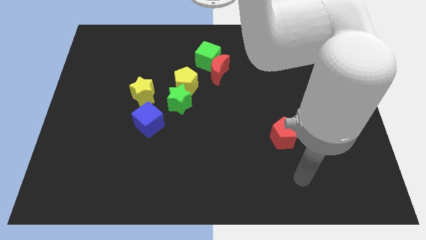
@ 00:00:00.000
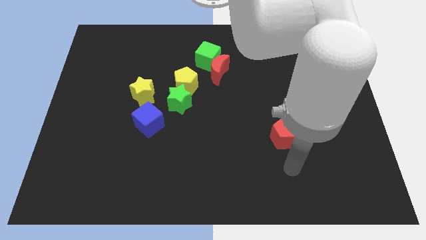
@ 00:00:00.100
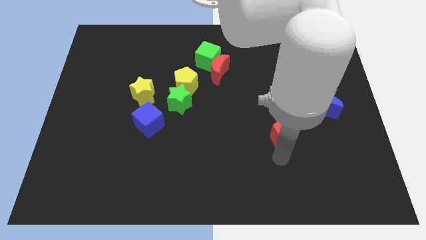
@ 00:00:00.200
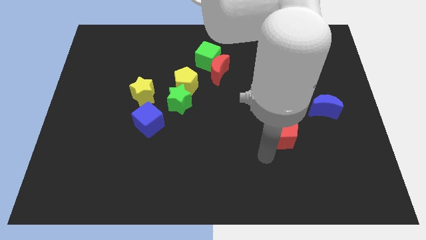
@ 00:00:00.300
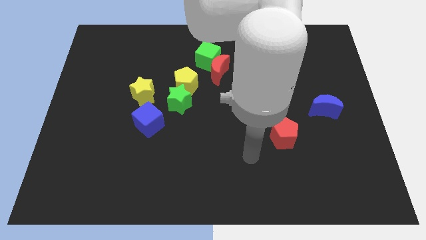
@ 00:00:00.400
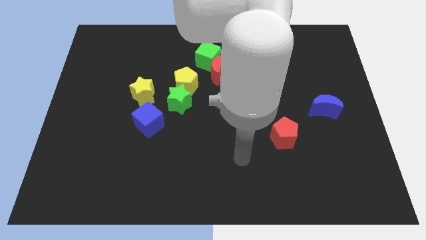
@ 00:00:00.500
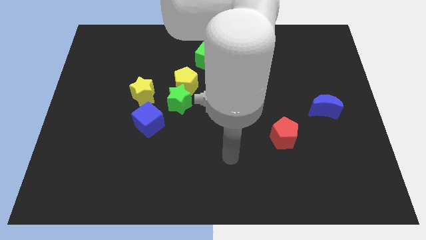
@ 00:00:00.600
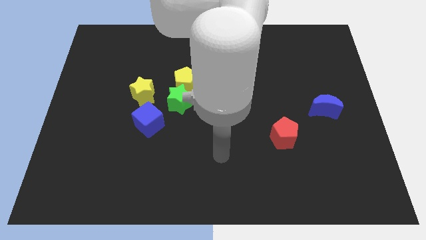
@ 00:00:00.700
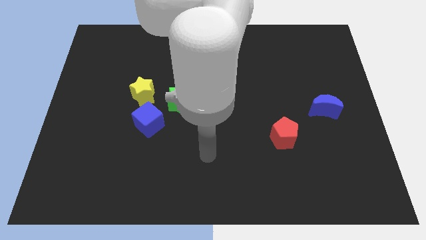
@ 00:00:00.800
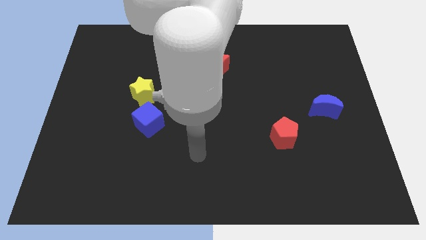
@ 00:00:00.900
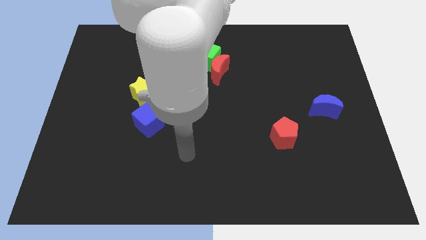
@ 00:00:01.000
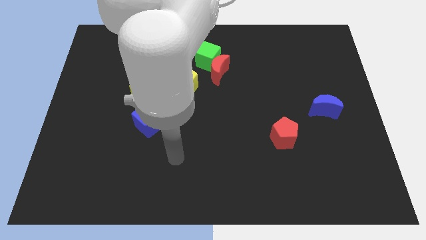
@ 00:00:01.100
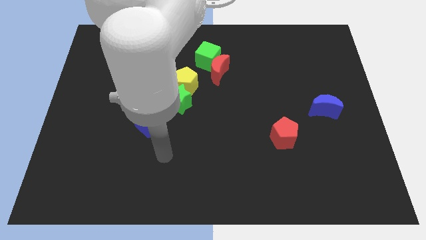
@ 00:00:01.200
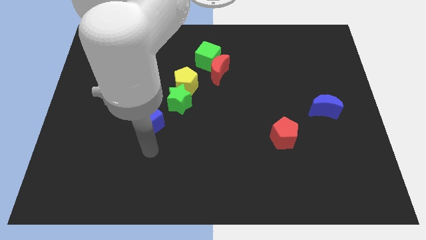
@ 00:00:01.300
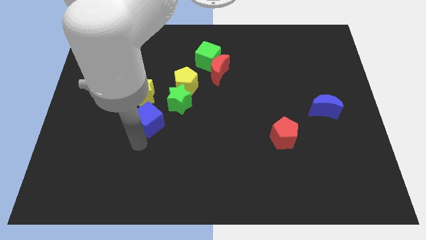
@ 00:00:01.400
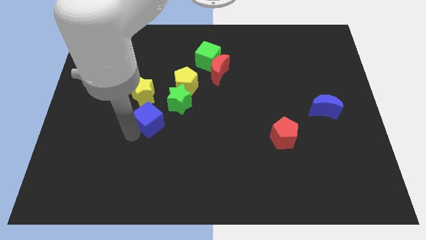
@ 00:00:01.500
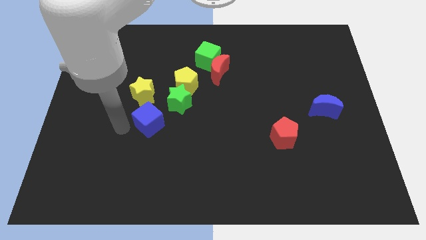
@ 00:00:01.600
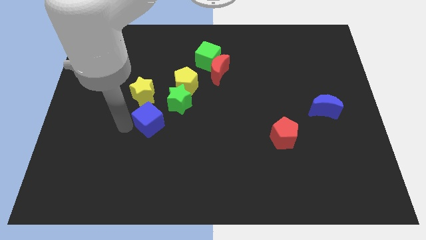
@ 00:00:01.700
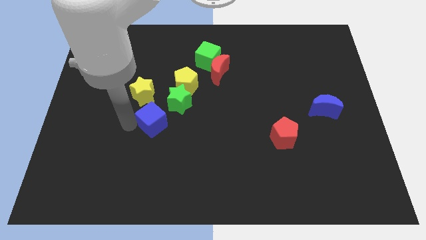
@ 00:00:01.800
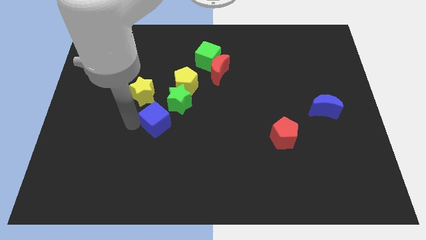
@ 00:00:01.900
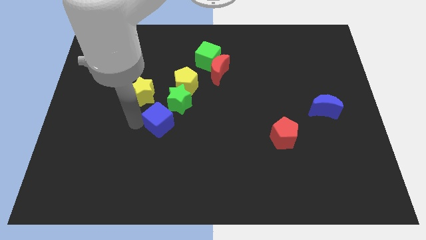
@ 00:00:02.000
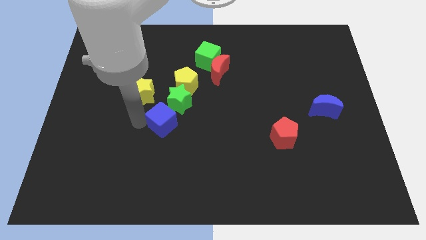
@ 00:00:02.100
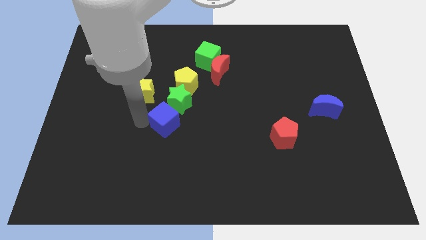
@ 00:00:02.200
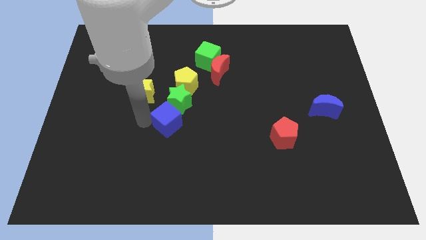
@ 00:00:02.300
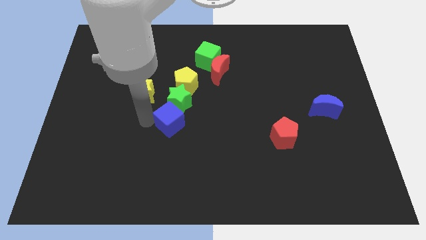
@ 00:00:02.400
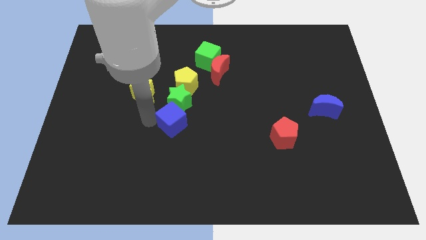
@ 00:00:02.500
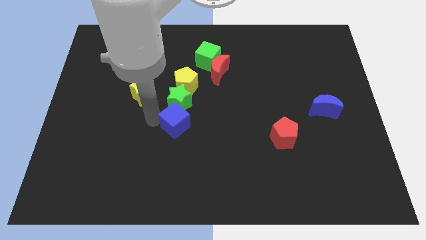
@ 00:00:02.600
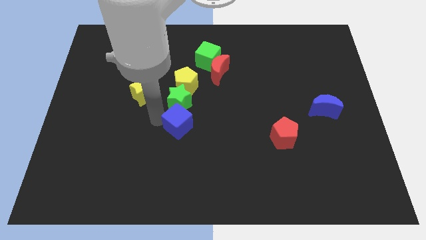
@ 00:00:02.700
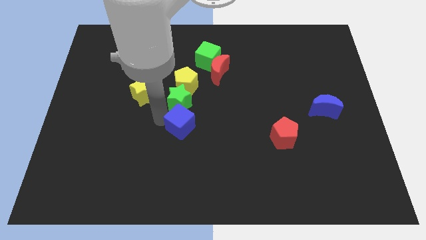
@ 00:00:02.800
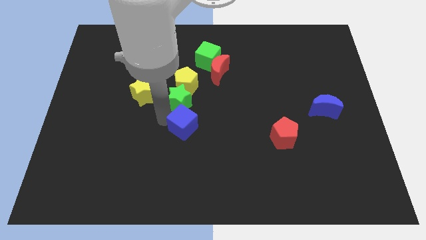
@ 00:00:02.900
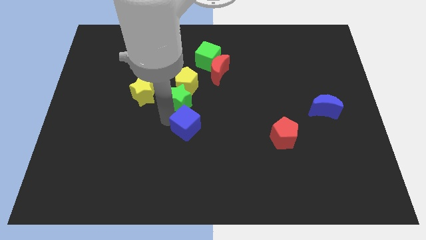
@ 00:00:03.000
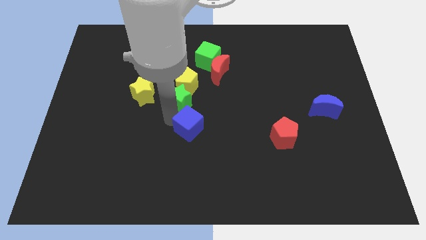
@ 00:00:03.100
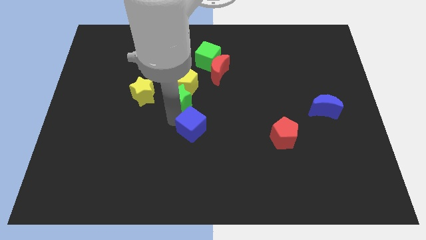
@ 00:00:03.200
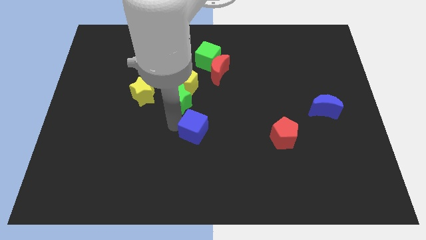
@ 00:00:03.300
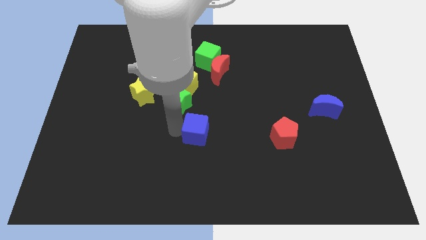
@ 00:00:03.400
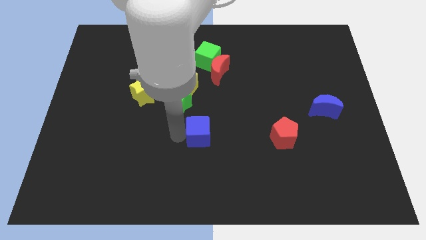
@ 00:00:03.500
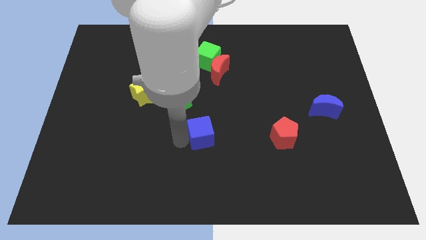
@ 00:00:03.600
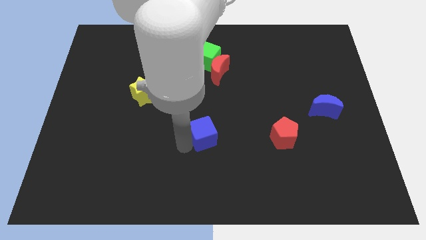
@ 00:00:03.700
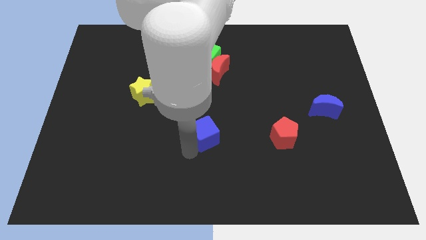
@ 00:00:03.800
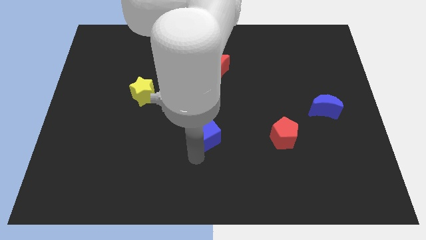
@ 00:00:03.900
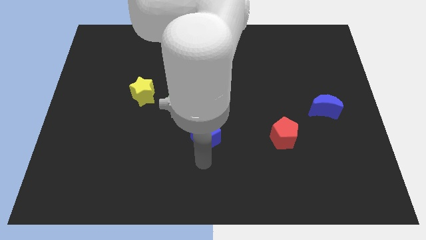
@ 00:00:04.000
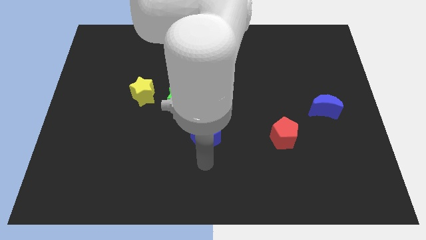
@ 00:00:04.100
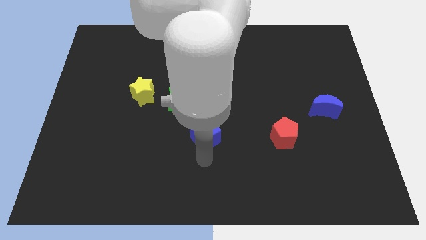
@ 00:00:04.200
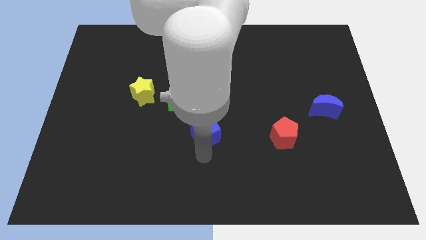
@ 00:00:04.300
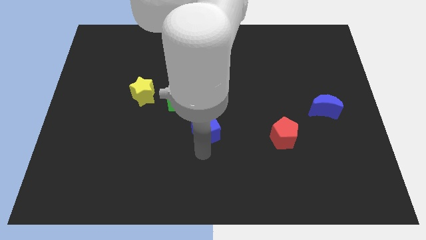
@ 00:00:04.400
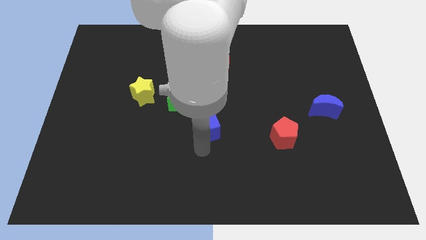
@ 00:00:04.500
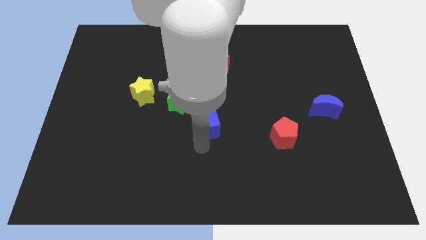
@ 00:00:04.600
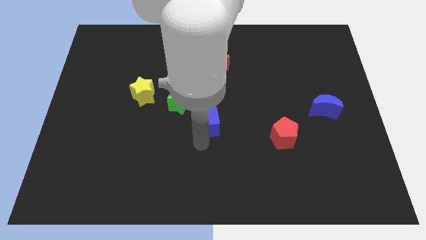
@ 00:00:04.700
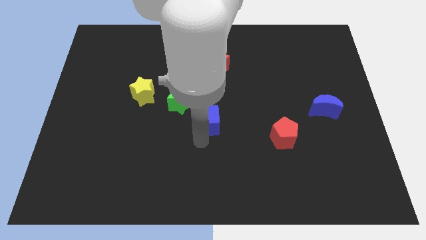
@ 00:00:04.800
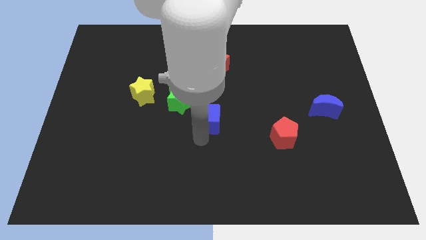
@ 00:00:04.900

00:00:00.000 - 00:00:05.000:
put the blue cube to the bottom side of the red moon

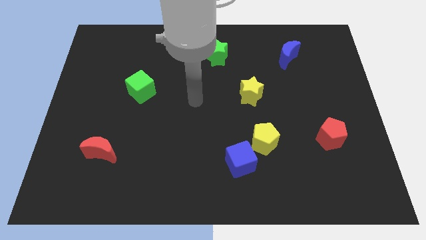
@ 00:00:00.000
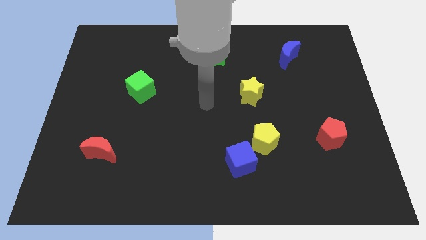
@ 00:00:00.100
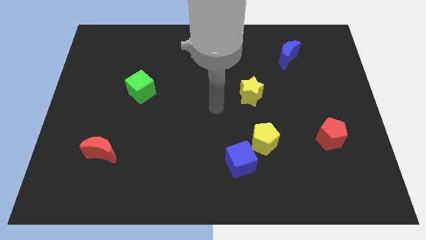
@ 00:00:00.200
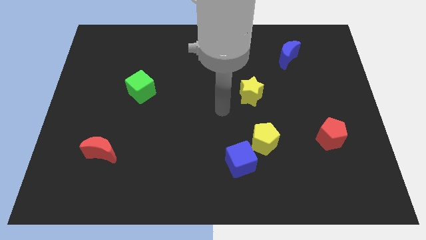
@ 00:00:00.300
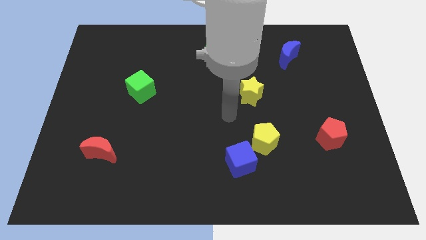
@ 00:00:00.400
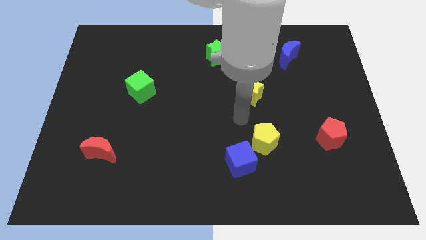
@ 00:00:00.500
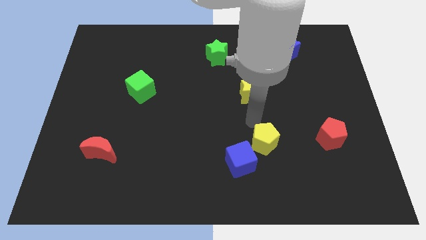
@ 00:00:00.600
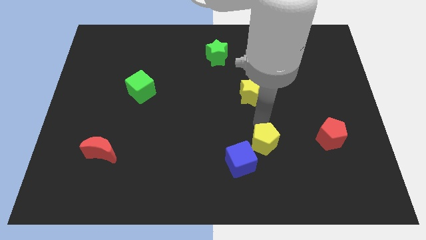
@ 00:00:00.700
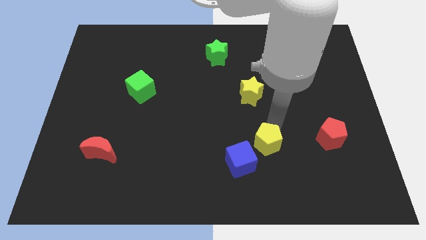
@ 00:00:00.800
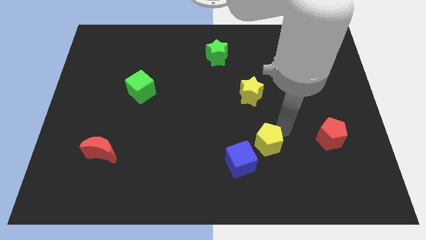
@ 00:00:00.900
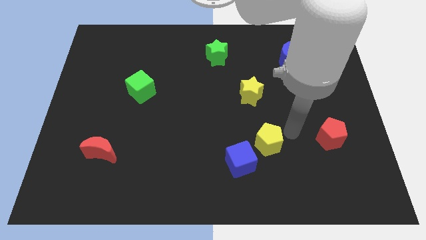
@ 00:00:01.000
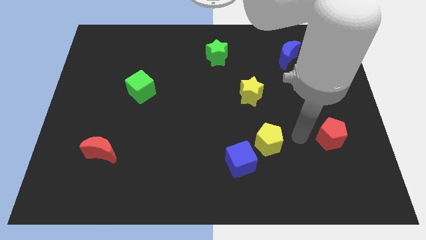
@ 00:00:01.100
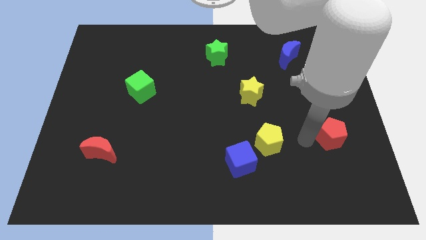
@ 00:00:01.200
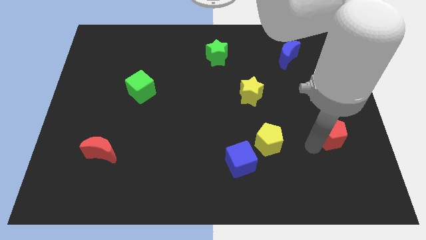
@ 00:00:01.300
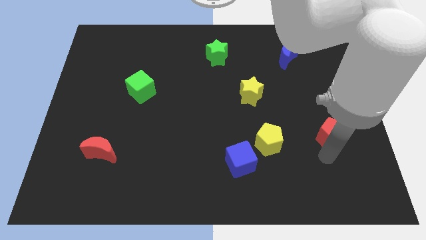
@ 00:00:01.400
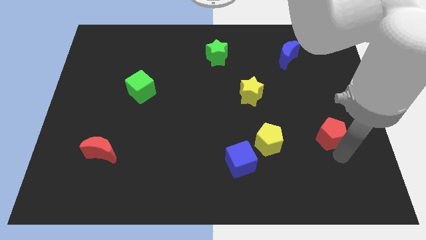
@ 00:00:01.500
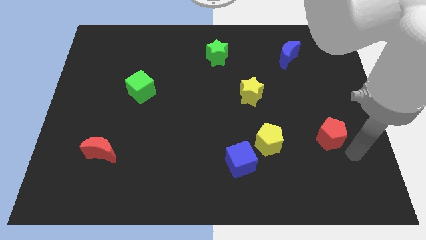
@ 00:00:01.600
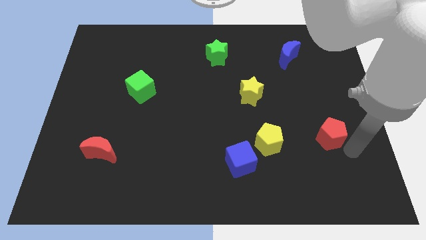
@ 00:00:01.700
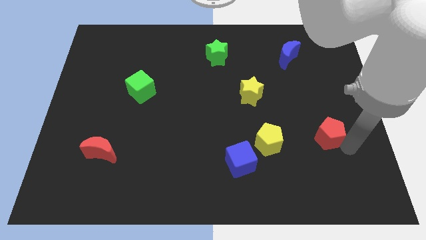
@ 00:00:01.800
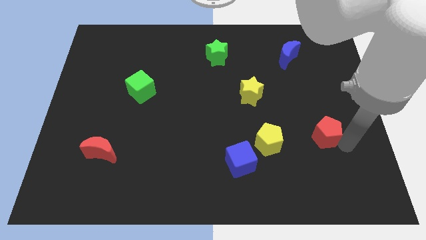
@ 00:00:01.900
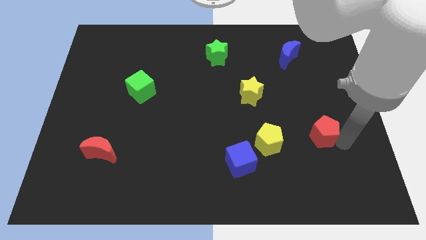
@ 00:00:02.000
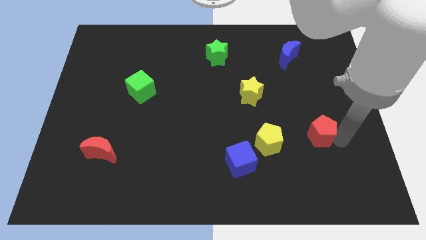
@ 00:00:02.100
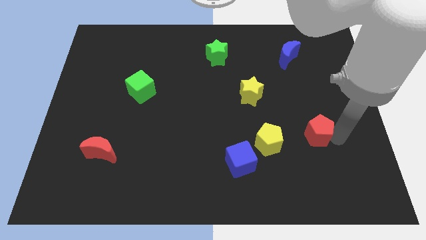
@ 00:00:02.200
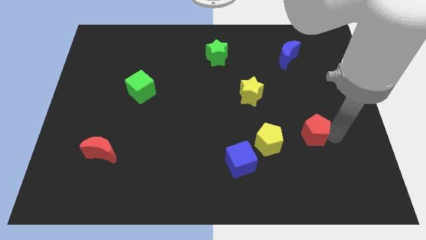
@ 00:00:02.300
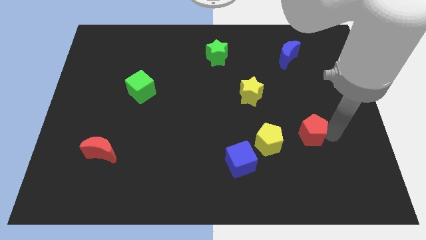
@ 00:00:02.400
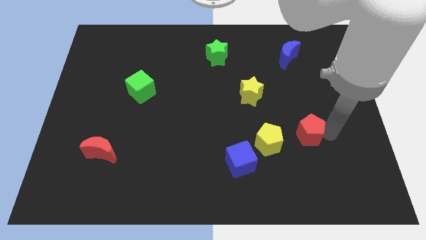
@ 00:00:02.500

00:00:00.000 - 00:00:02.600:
push the red pentagon diagonally up and to the right of the yellow pentagon
